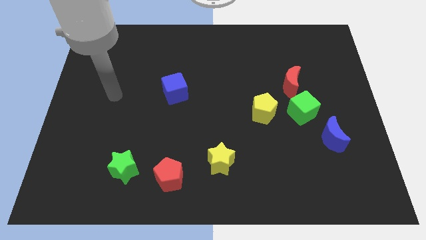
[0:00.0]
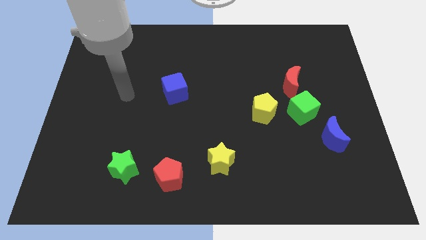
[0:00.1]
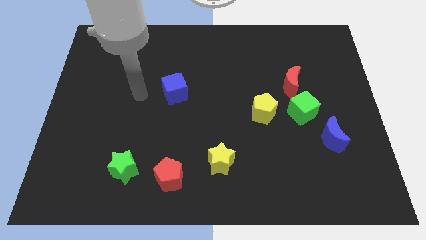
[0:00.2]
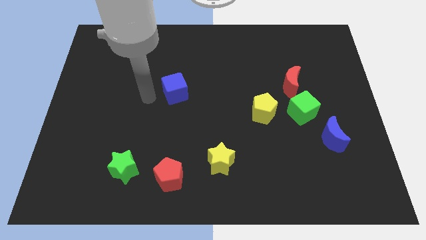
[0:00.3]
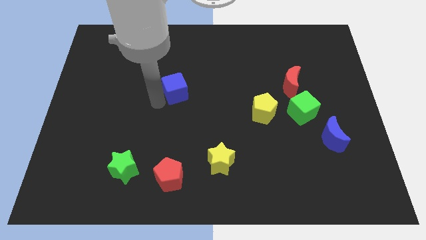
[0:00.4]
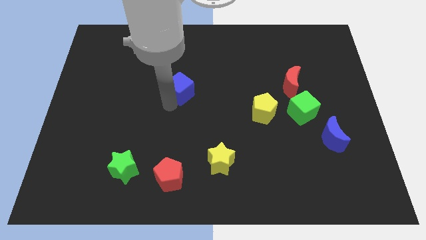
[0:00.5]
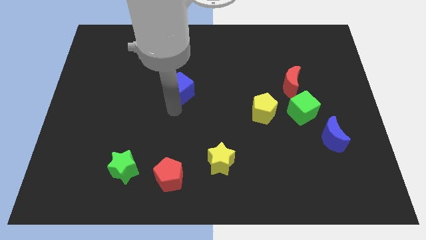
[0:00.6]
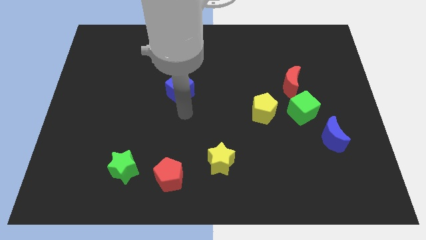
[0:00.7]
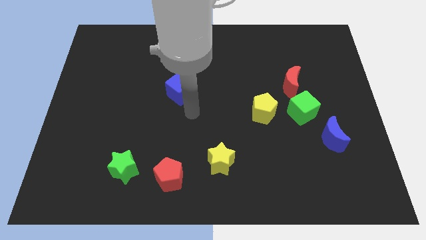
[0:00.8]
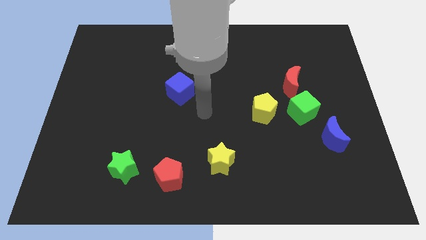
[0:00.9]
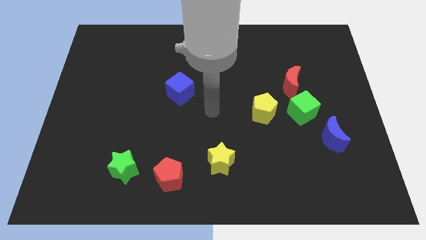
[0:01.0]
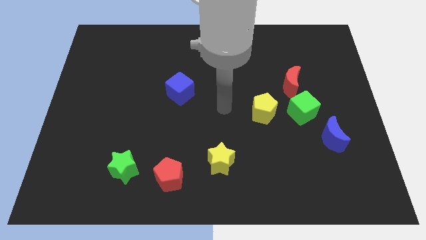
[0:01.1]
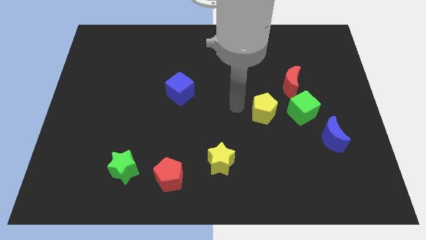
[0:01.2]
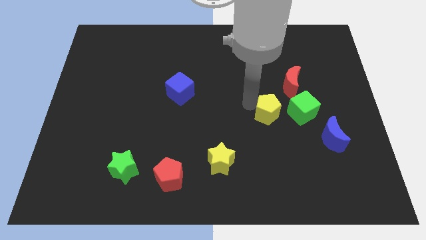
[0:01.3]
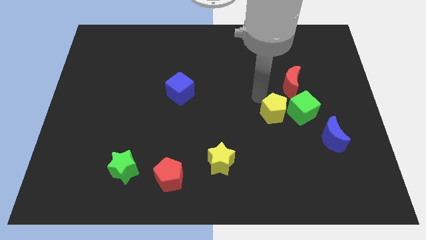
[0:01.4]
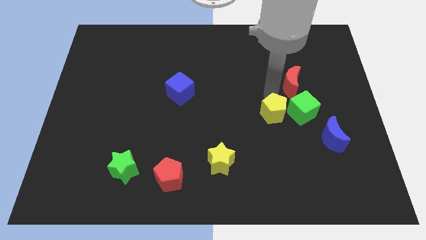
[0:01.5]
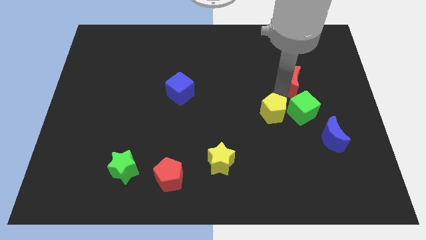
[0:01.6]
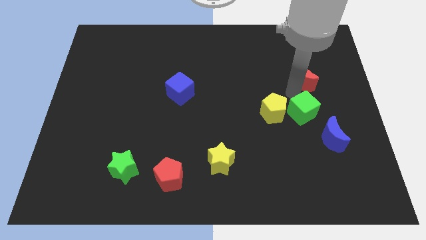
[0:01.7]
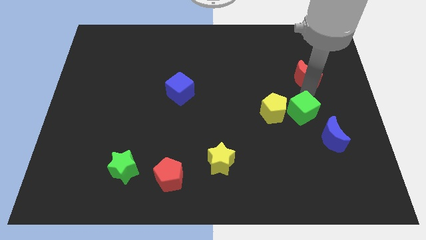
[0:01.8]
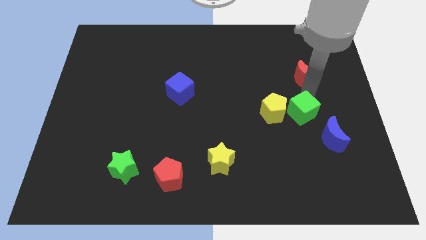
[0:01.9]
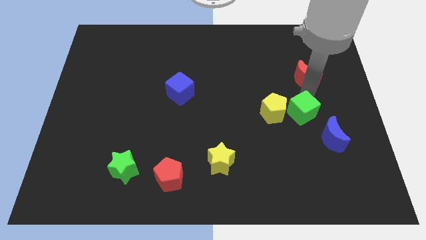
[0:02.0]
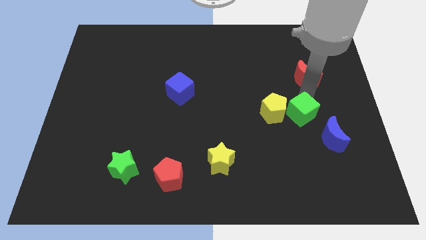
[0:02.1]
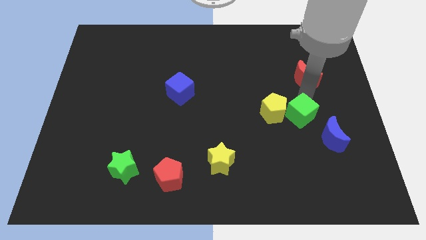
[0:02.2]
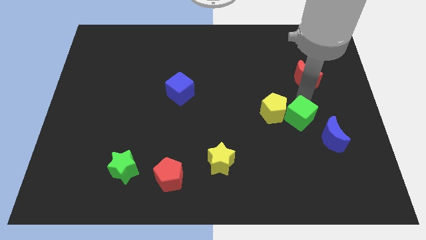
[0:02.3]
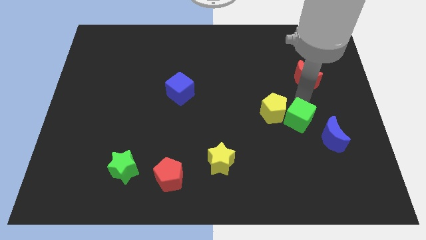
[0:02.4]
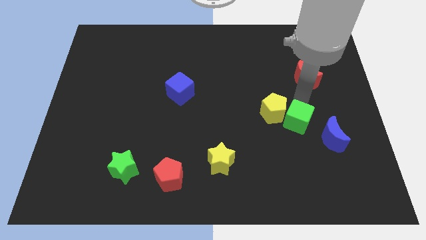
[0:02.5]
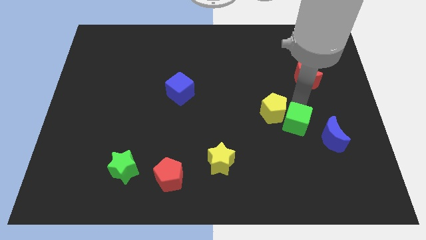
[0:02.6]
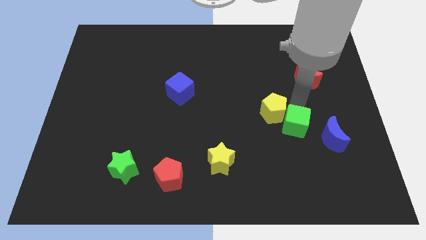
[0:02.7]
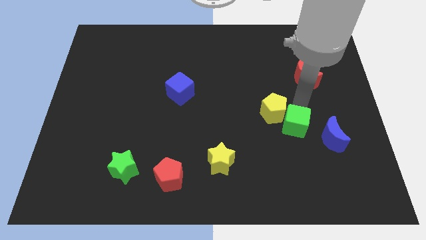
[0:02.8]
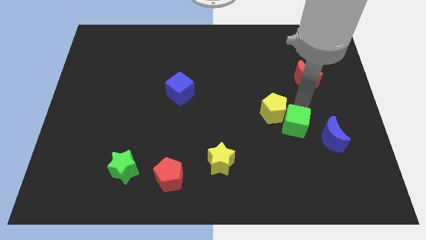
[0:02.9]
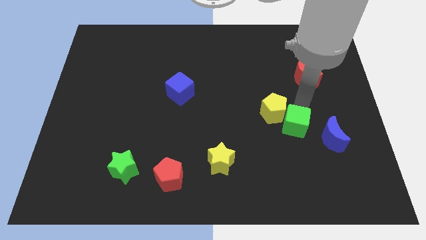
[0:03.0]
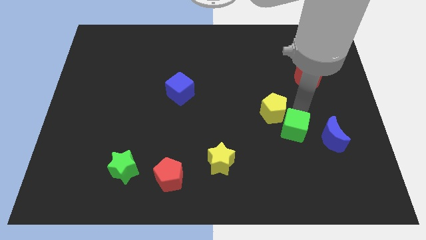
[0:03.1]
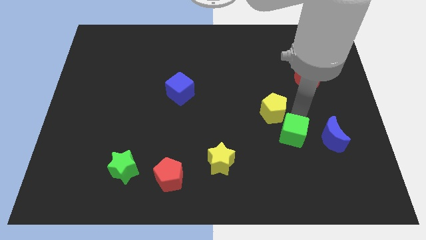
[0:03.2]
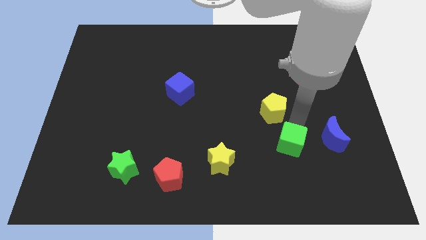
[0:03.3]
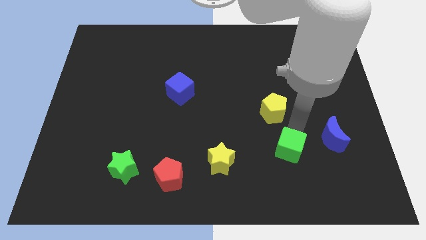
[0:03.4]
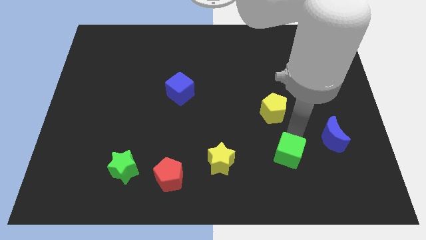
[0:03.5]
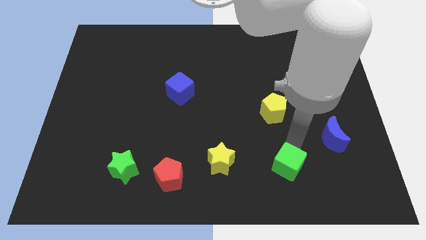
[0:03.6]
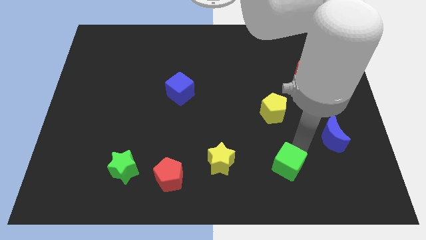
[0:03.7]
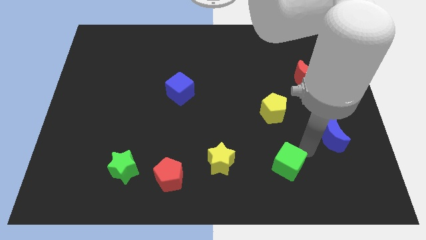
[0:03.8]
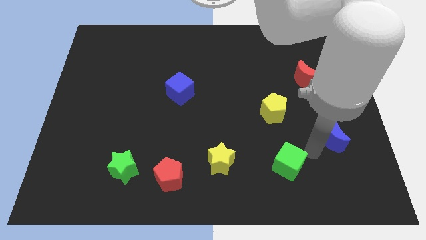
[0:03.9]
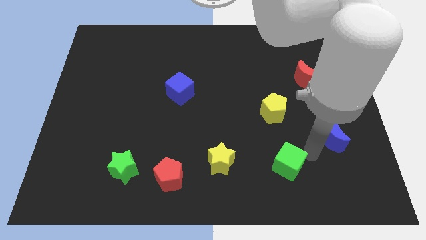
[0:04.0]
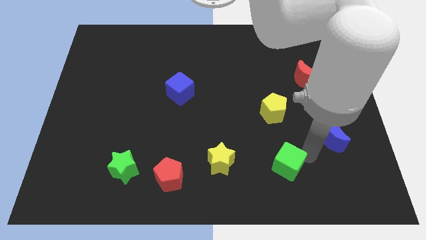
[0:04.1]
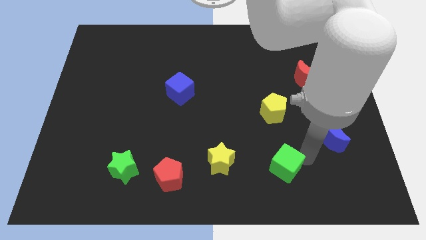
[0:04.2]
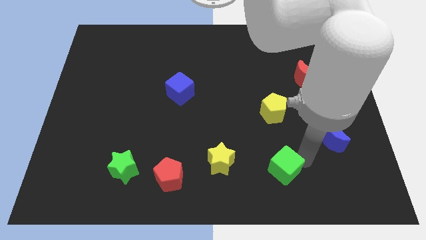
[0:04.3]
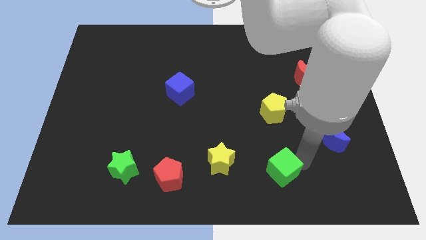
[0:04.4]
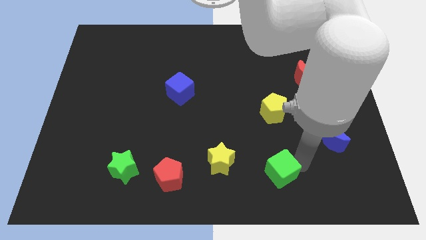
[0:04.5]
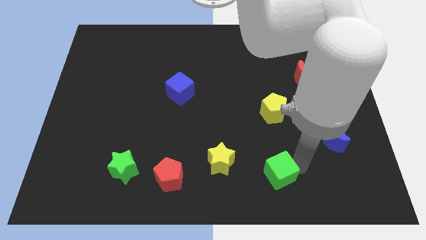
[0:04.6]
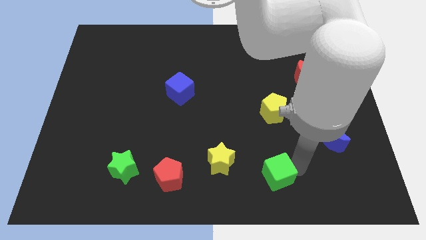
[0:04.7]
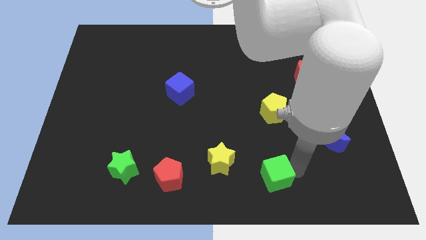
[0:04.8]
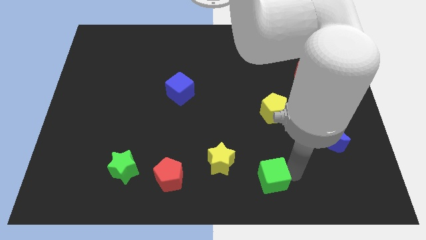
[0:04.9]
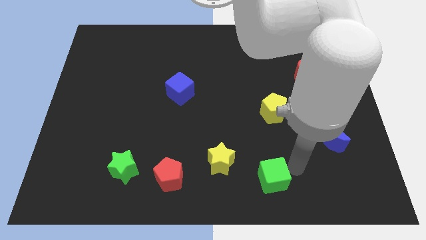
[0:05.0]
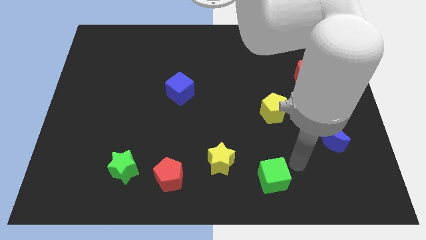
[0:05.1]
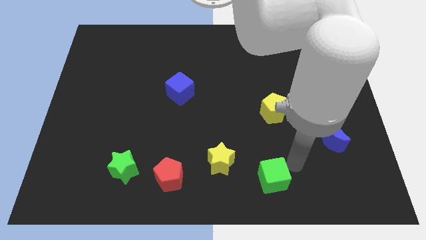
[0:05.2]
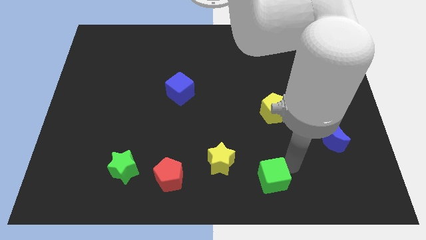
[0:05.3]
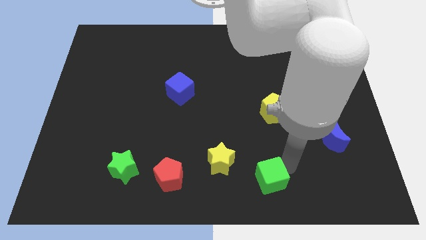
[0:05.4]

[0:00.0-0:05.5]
push the green cube to the bottom side

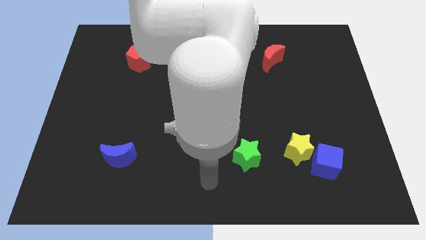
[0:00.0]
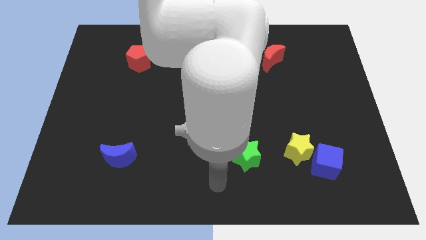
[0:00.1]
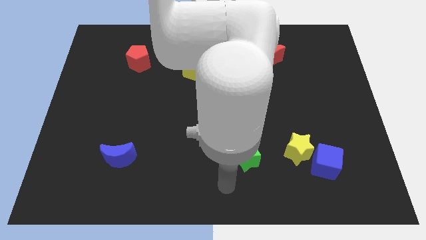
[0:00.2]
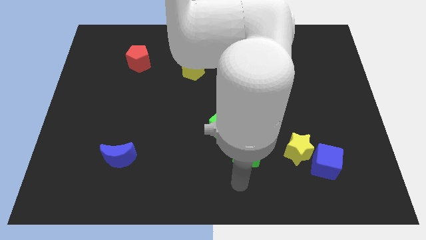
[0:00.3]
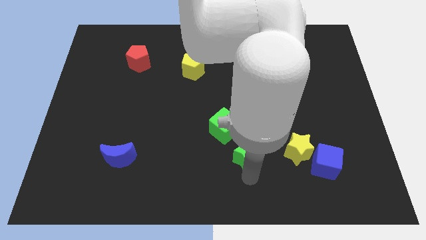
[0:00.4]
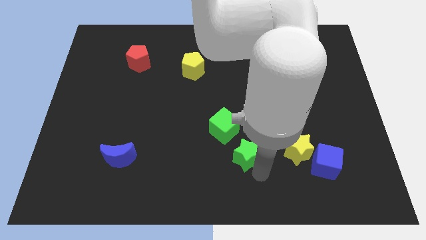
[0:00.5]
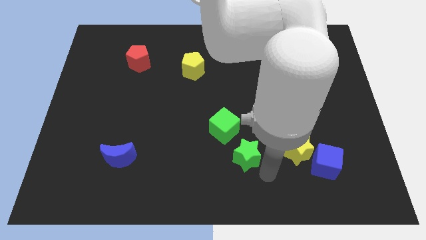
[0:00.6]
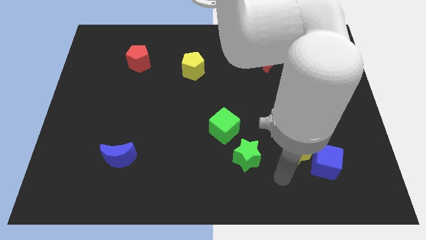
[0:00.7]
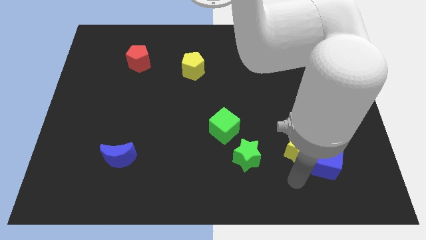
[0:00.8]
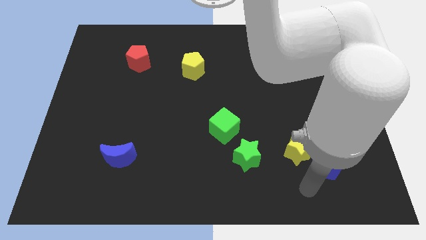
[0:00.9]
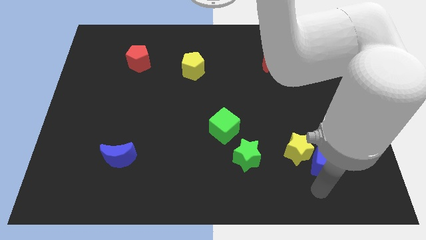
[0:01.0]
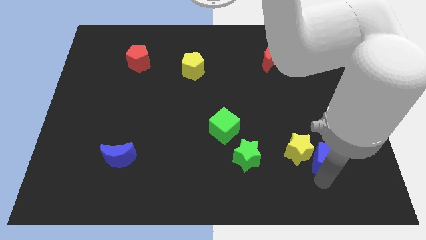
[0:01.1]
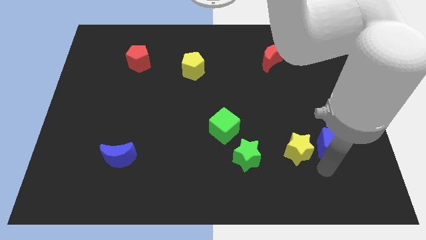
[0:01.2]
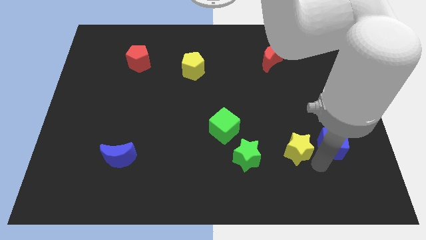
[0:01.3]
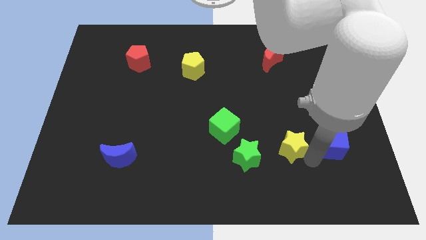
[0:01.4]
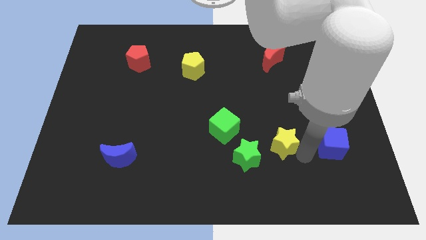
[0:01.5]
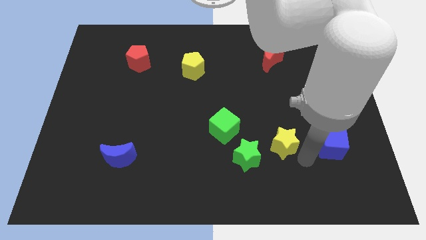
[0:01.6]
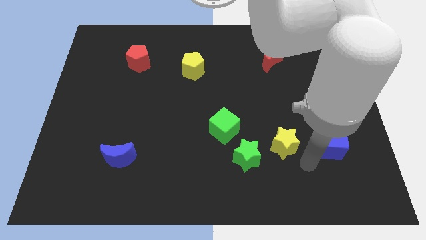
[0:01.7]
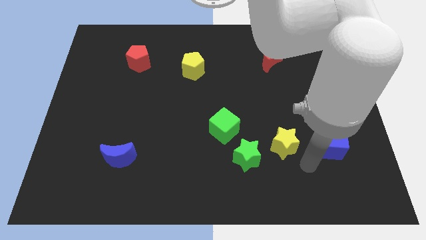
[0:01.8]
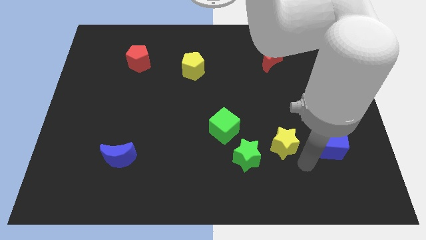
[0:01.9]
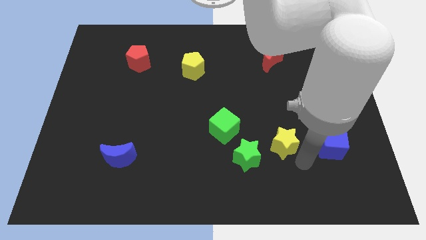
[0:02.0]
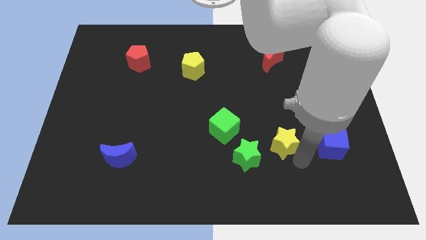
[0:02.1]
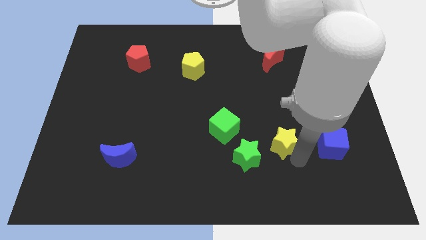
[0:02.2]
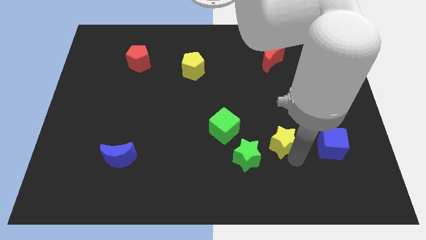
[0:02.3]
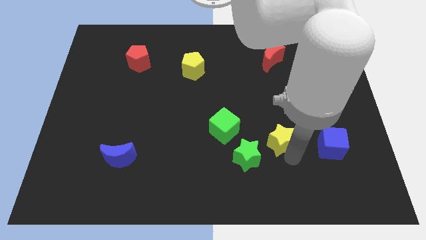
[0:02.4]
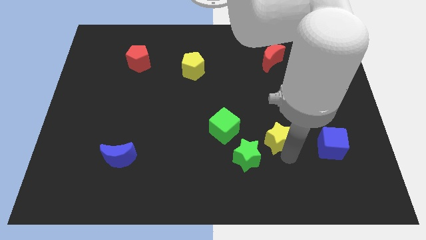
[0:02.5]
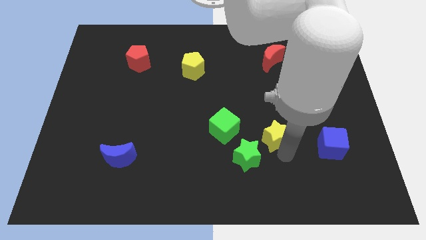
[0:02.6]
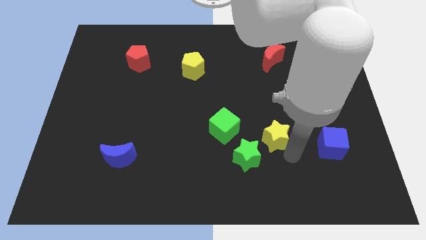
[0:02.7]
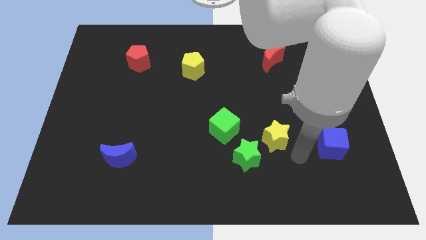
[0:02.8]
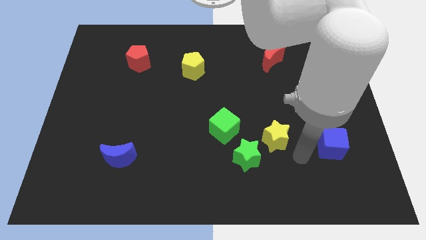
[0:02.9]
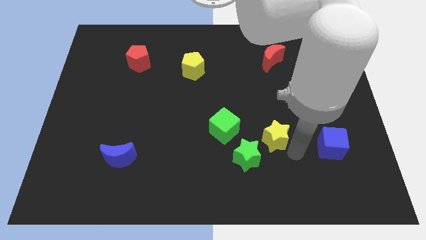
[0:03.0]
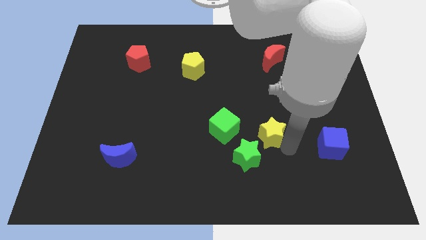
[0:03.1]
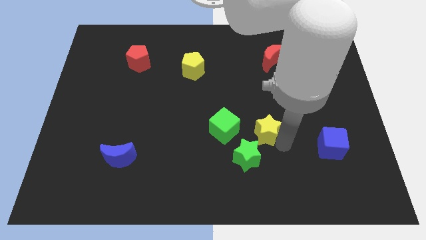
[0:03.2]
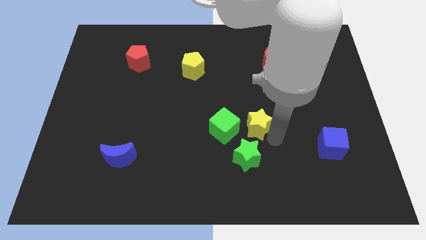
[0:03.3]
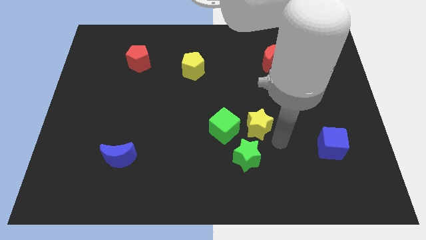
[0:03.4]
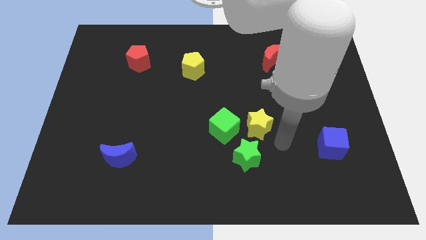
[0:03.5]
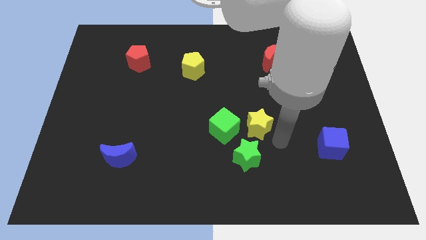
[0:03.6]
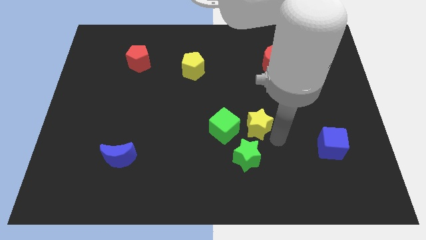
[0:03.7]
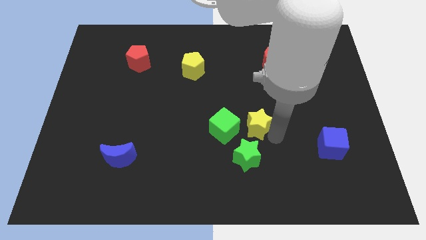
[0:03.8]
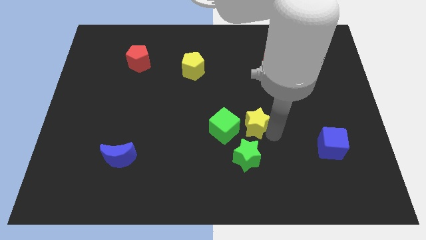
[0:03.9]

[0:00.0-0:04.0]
push the yellow star to the center of the board
